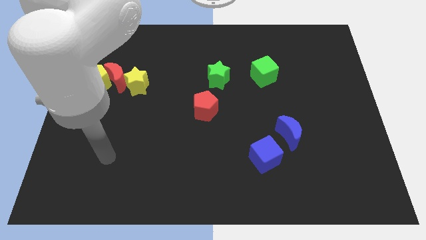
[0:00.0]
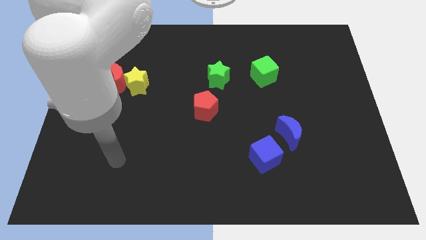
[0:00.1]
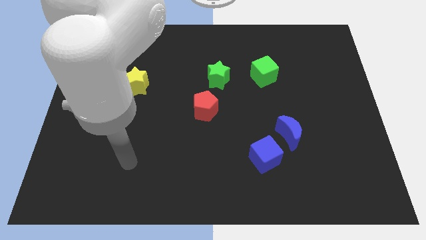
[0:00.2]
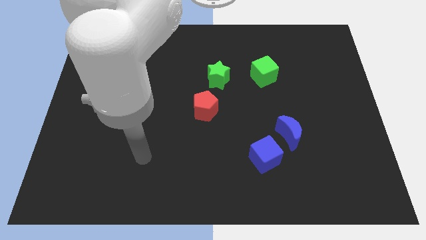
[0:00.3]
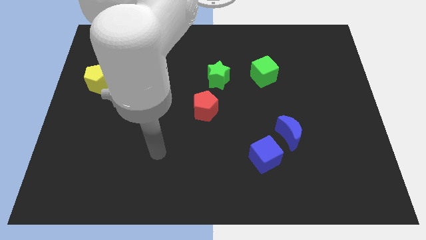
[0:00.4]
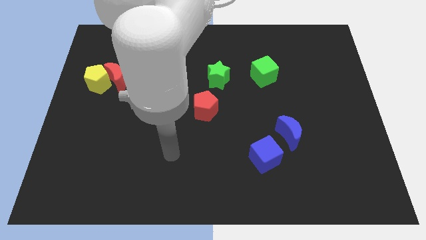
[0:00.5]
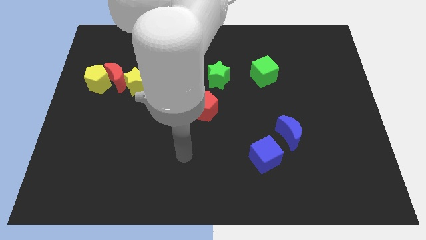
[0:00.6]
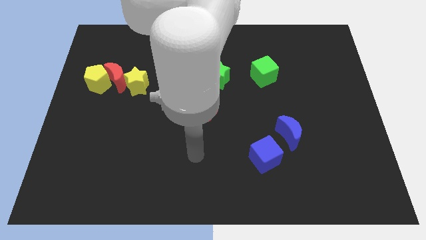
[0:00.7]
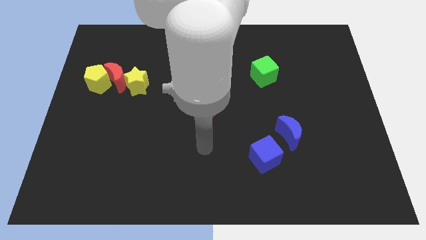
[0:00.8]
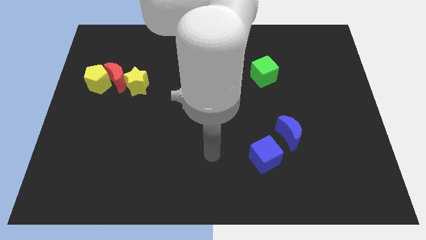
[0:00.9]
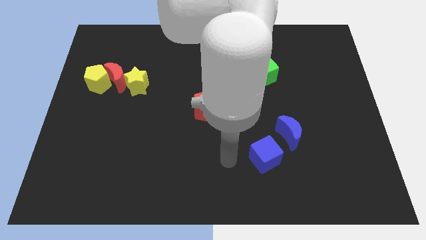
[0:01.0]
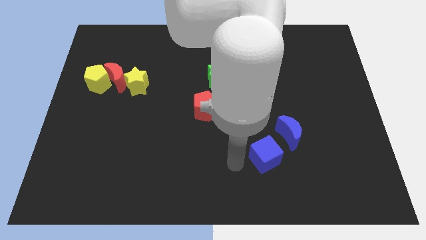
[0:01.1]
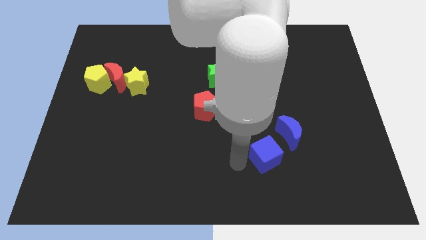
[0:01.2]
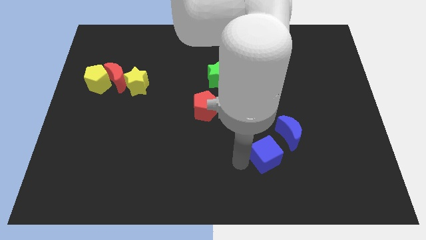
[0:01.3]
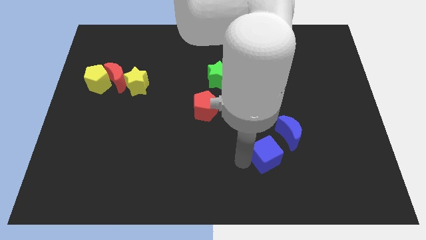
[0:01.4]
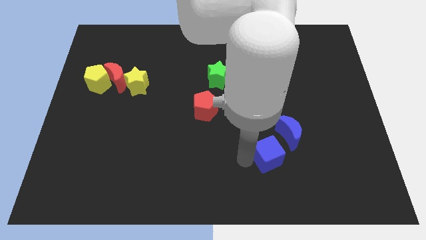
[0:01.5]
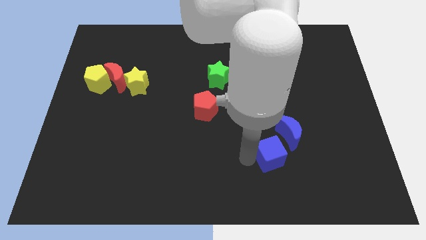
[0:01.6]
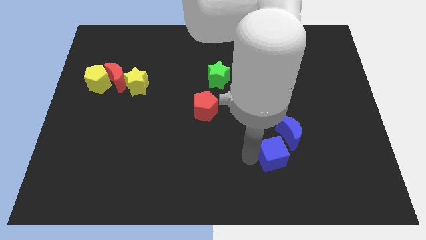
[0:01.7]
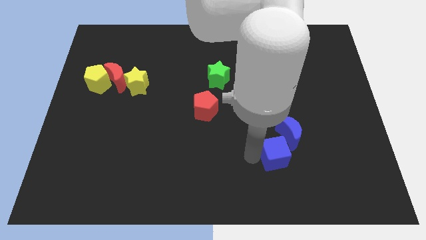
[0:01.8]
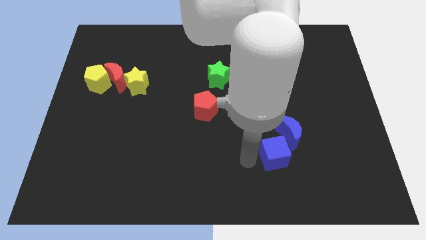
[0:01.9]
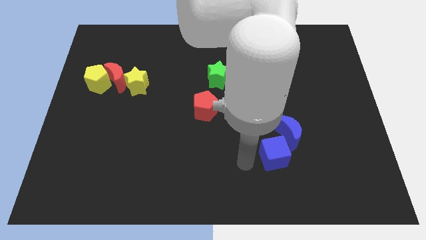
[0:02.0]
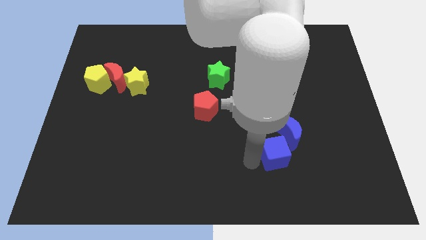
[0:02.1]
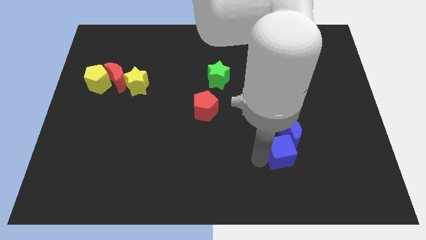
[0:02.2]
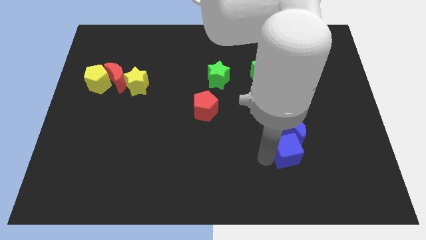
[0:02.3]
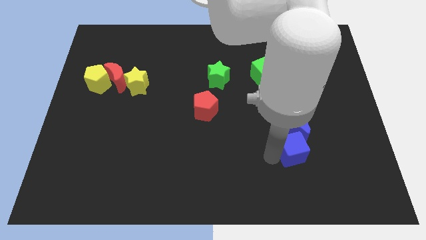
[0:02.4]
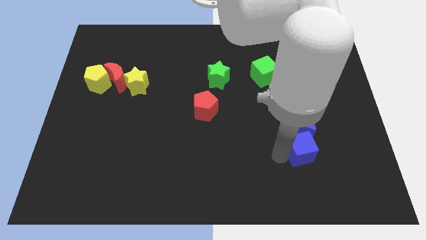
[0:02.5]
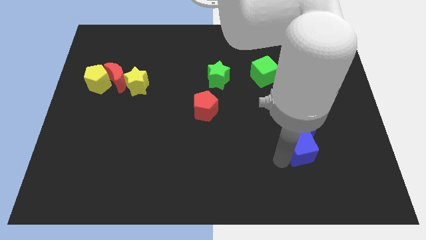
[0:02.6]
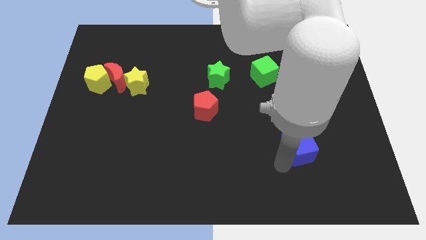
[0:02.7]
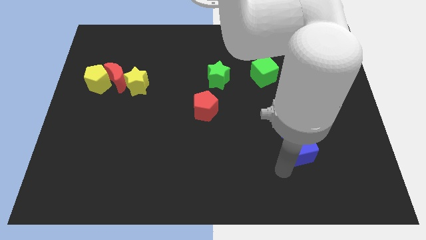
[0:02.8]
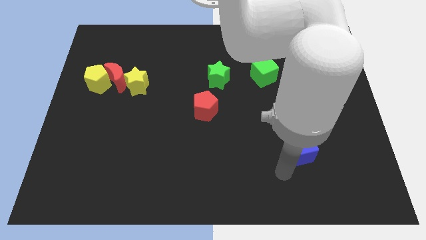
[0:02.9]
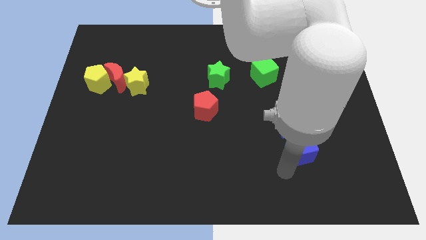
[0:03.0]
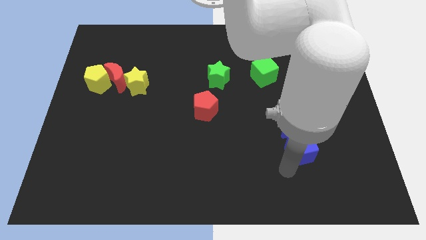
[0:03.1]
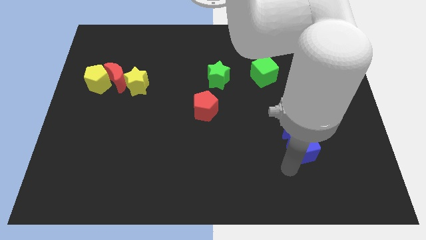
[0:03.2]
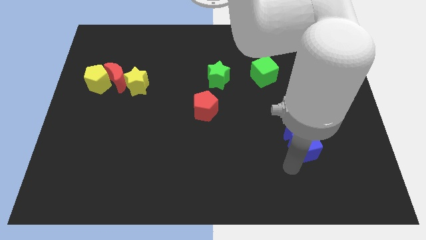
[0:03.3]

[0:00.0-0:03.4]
move the blue cube up and then to the right somewhat

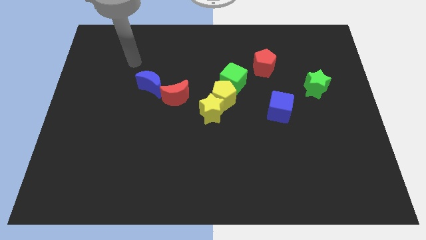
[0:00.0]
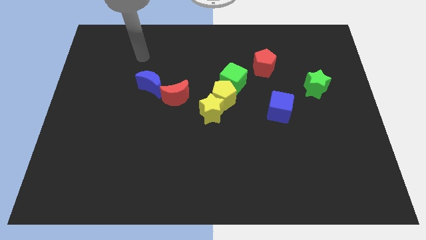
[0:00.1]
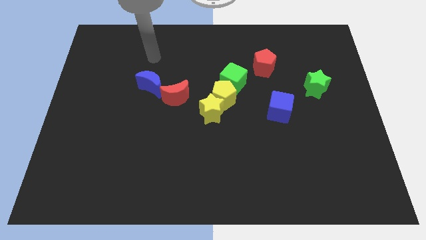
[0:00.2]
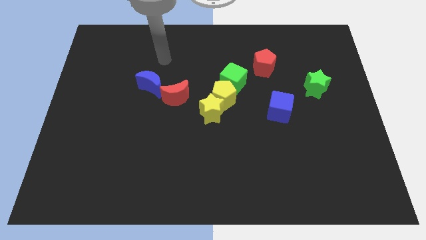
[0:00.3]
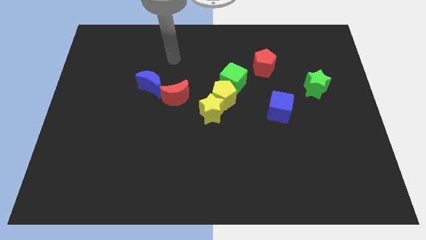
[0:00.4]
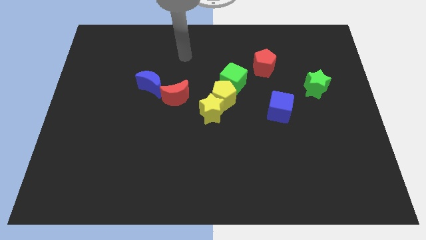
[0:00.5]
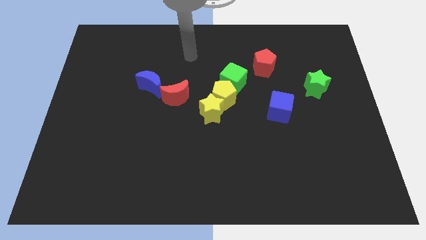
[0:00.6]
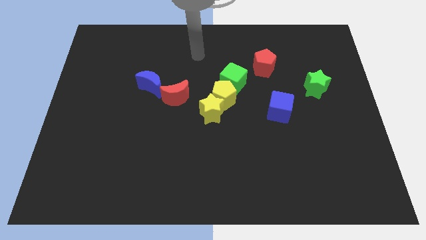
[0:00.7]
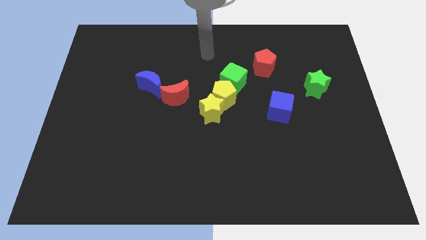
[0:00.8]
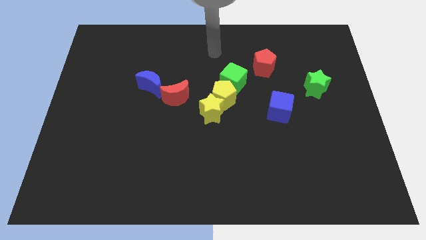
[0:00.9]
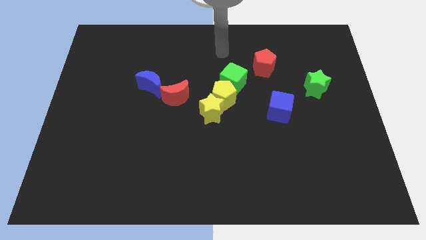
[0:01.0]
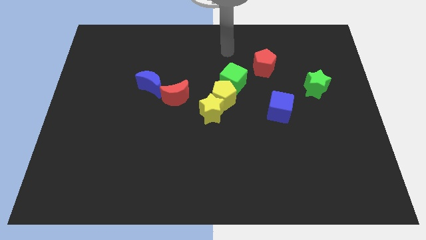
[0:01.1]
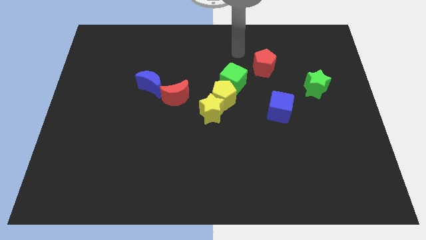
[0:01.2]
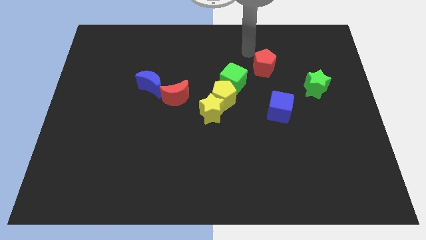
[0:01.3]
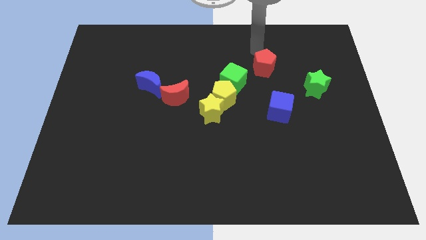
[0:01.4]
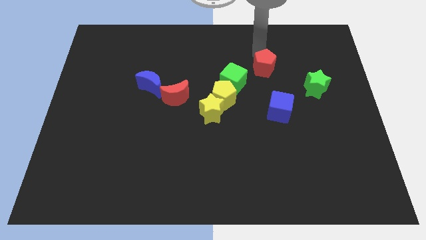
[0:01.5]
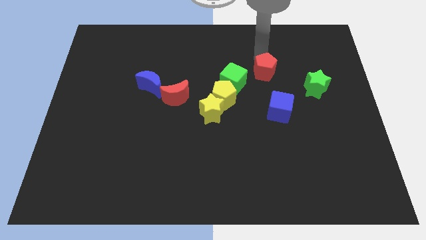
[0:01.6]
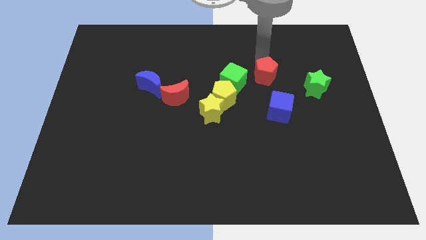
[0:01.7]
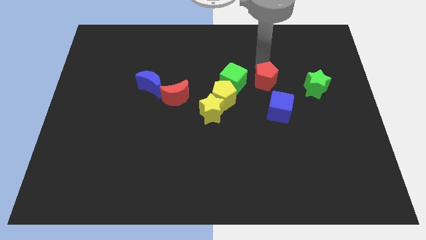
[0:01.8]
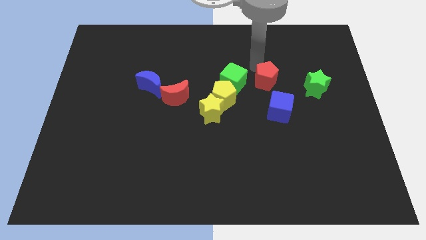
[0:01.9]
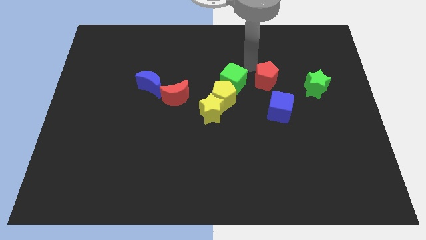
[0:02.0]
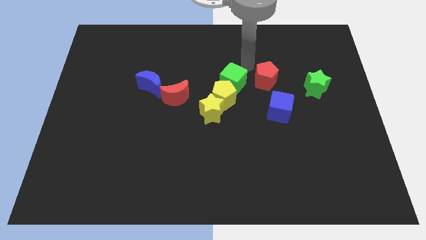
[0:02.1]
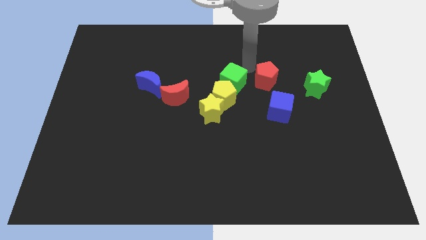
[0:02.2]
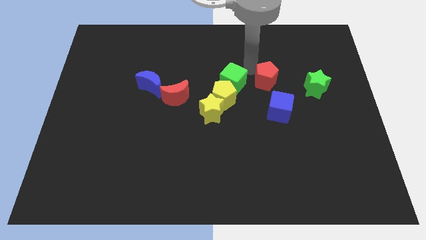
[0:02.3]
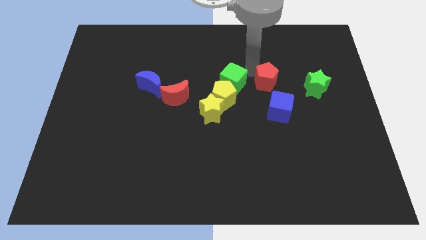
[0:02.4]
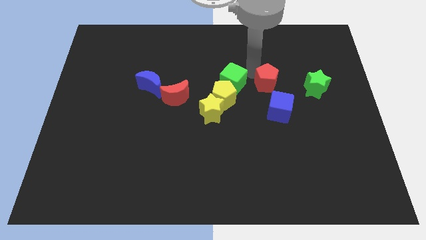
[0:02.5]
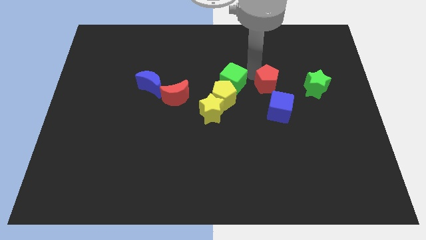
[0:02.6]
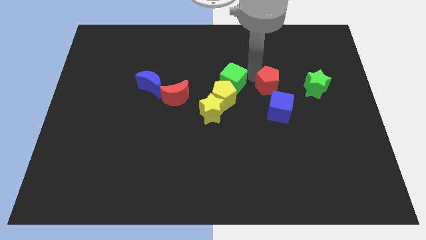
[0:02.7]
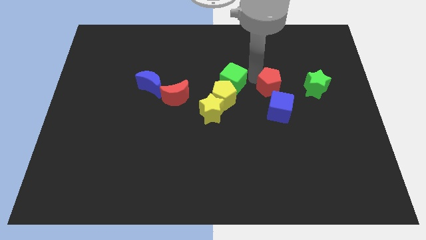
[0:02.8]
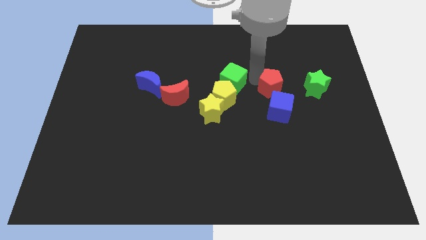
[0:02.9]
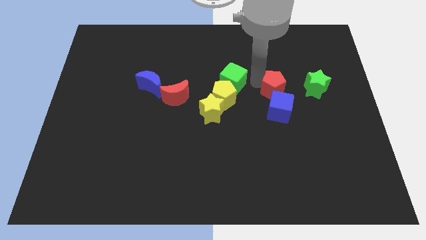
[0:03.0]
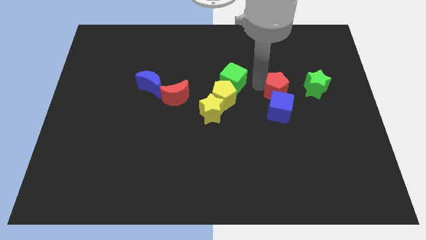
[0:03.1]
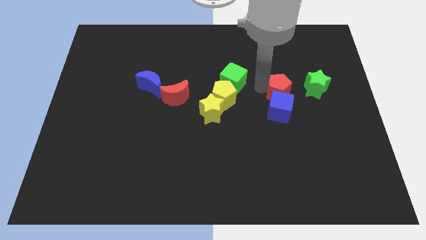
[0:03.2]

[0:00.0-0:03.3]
move the red pentagon downwards and then to the right a bit

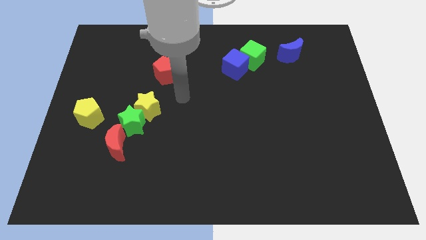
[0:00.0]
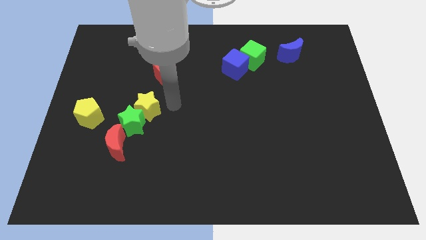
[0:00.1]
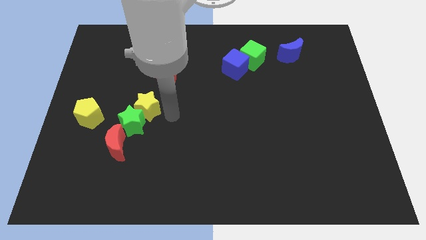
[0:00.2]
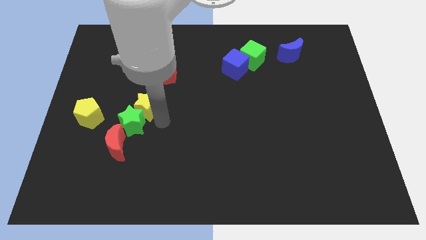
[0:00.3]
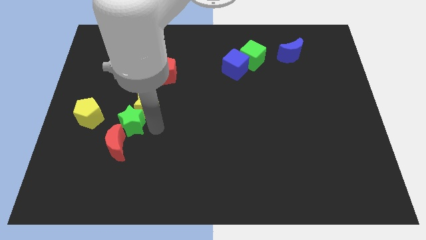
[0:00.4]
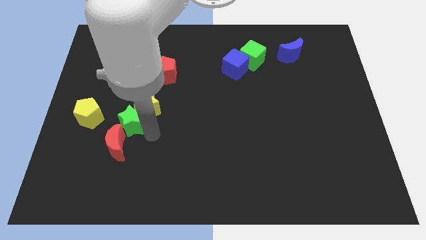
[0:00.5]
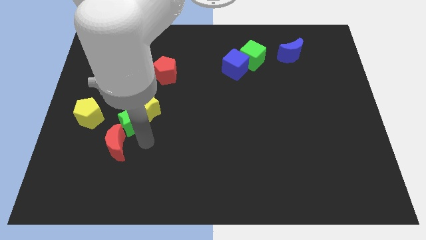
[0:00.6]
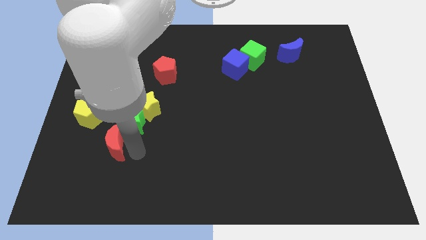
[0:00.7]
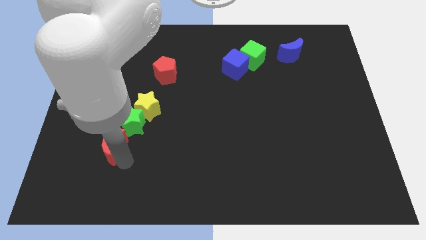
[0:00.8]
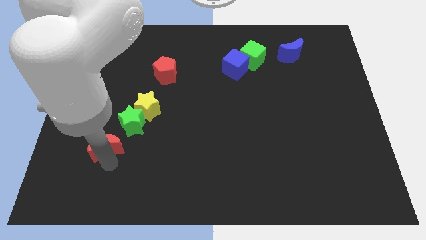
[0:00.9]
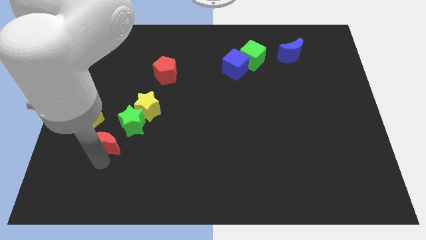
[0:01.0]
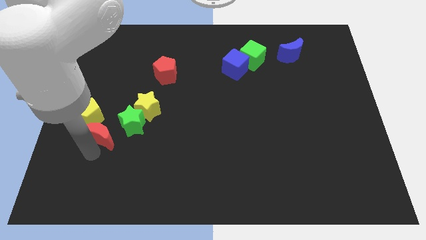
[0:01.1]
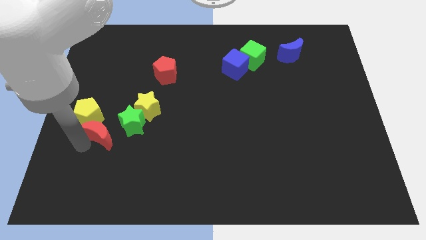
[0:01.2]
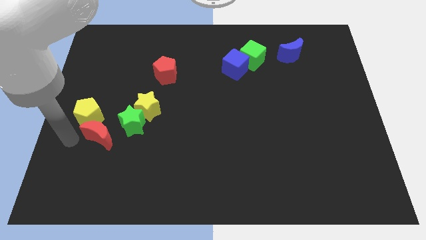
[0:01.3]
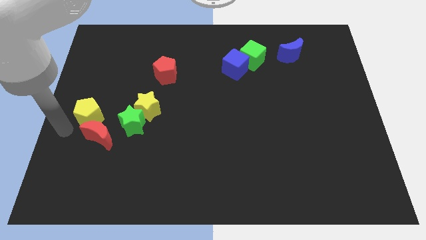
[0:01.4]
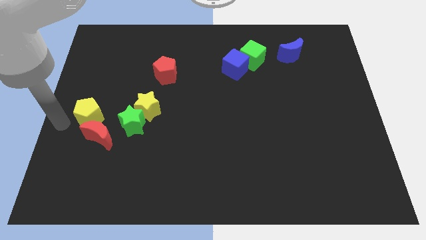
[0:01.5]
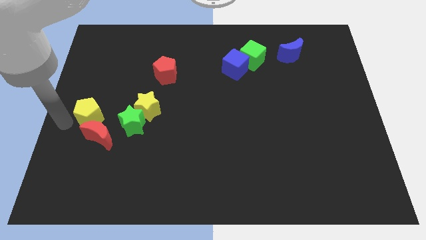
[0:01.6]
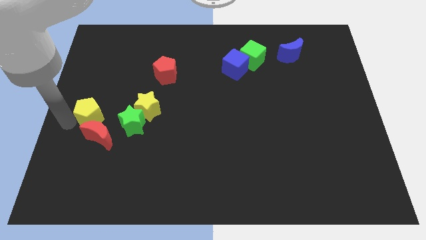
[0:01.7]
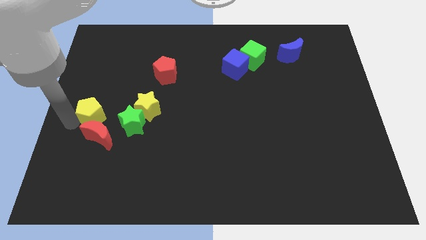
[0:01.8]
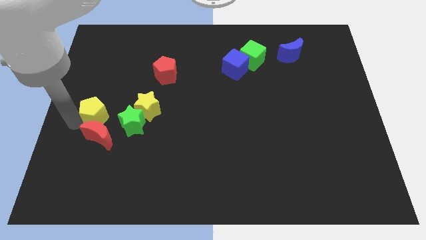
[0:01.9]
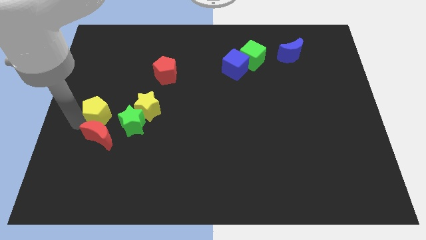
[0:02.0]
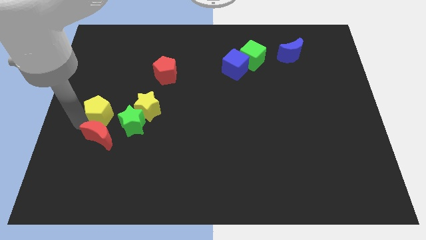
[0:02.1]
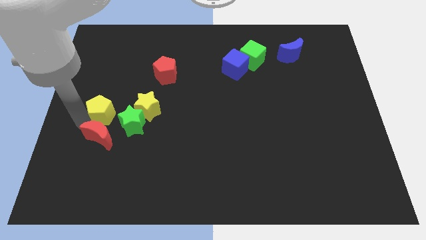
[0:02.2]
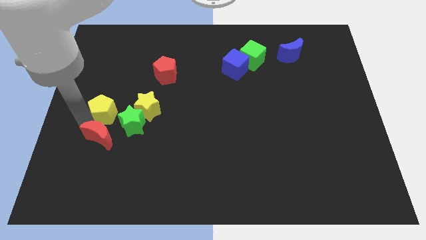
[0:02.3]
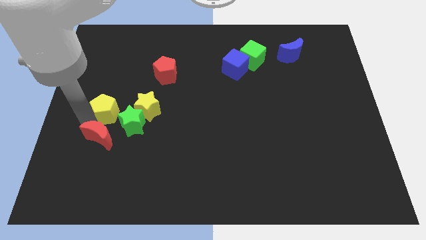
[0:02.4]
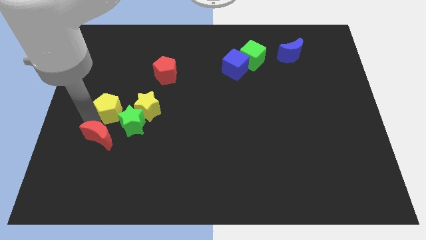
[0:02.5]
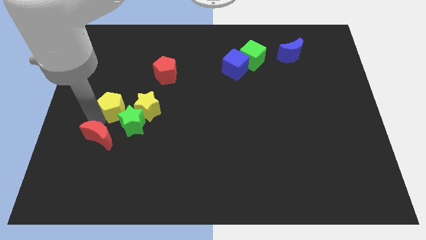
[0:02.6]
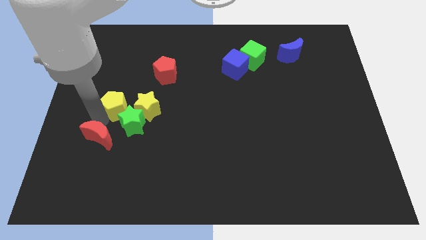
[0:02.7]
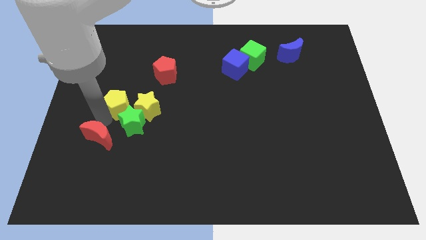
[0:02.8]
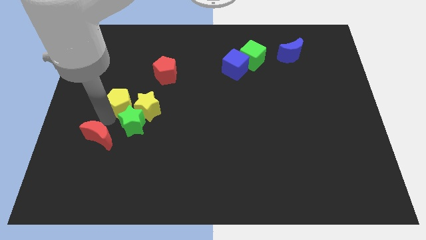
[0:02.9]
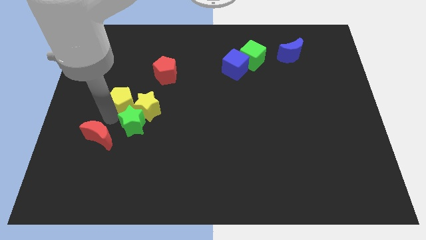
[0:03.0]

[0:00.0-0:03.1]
slide the yellow pentagon to the right a bit
